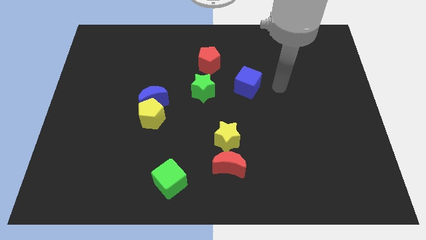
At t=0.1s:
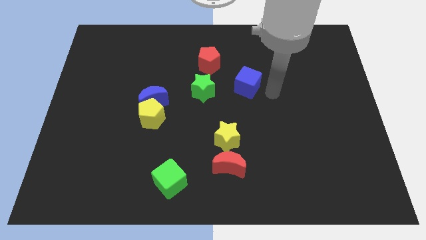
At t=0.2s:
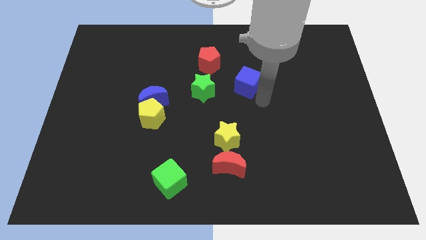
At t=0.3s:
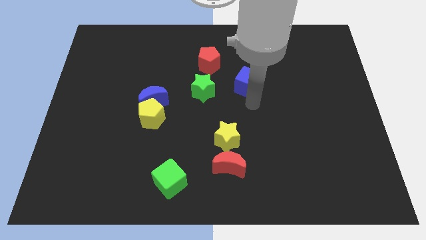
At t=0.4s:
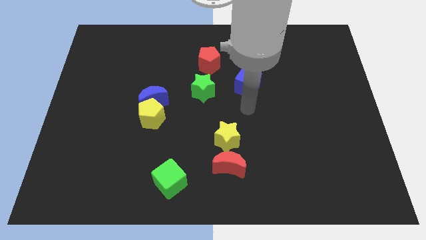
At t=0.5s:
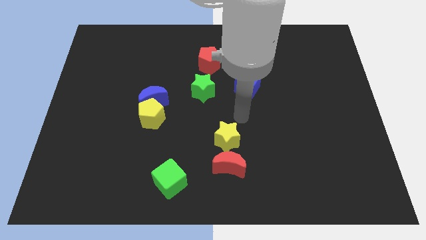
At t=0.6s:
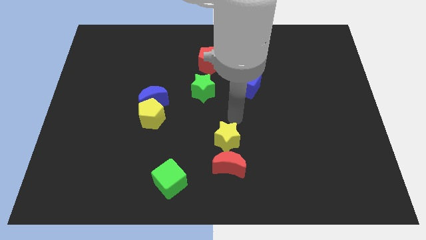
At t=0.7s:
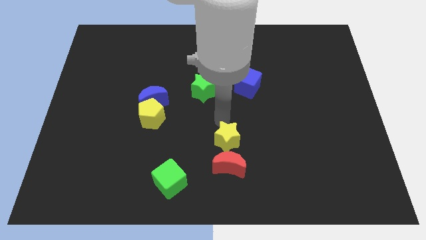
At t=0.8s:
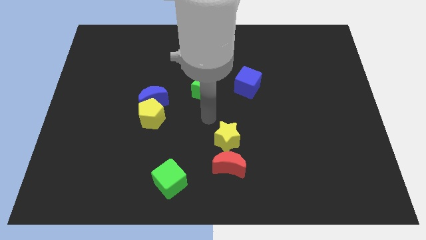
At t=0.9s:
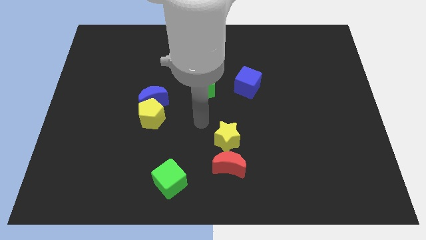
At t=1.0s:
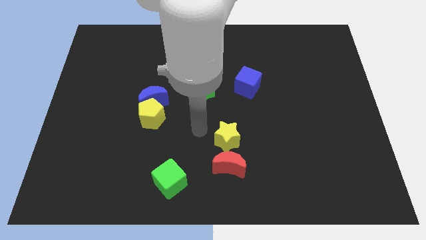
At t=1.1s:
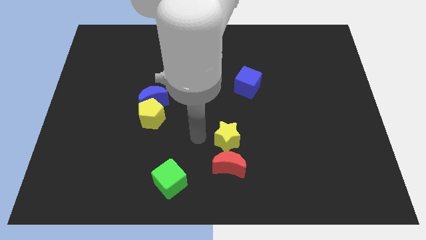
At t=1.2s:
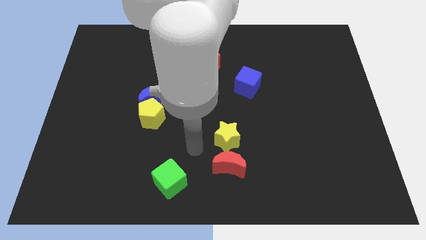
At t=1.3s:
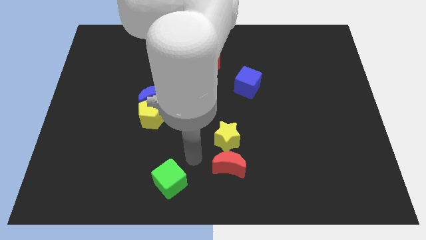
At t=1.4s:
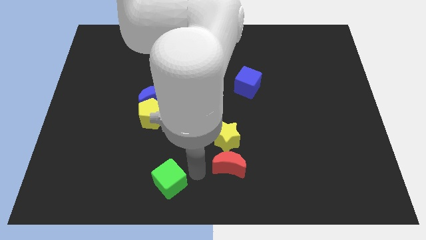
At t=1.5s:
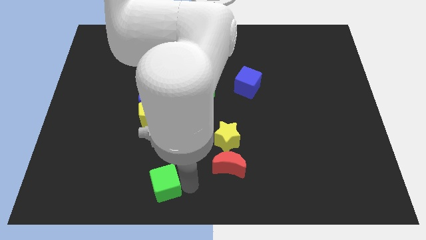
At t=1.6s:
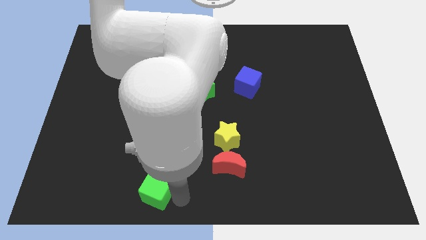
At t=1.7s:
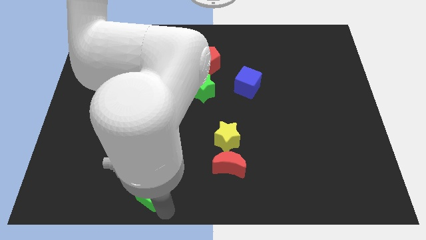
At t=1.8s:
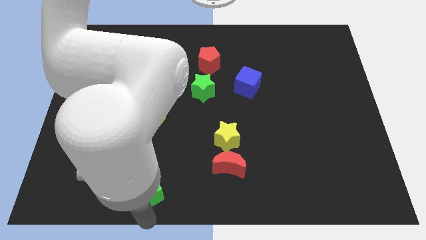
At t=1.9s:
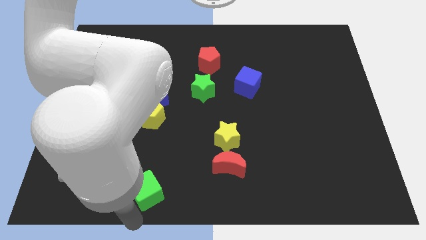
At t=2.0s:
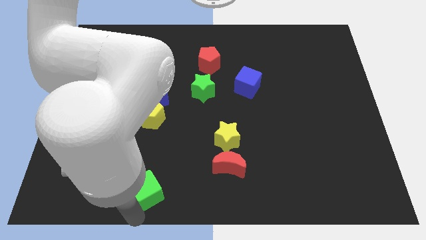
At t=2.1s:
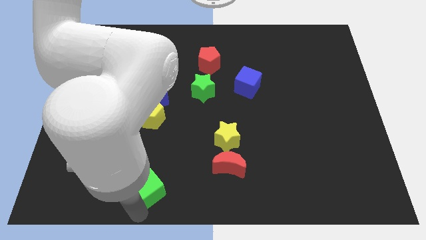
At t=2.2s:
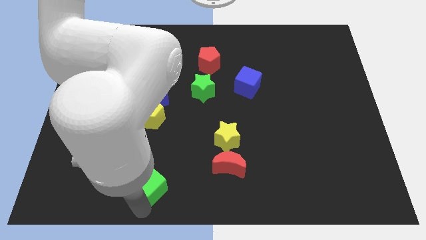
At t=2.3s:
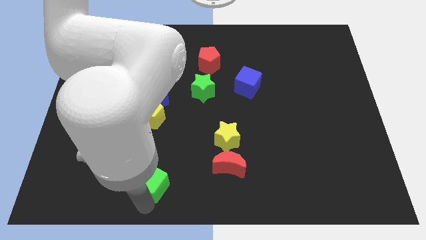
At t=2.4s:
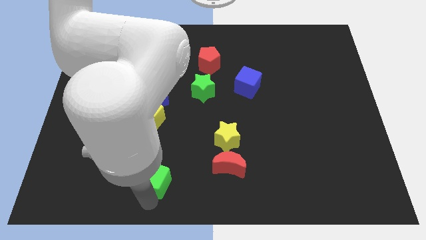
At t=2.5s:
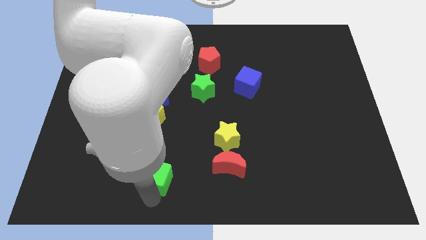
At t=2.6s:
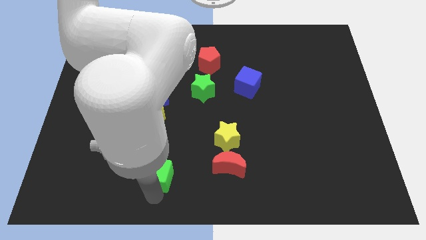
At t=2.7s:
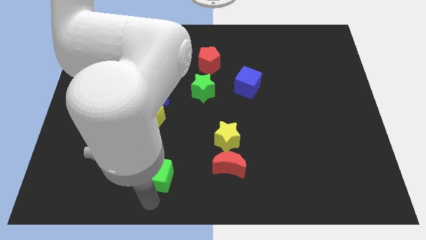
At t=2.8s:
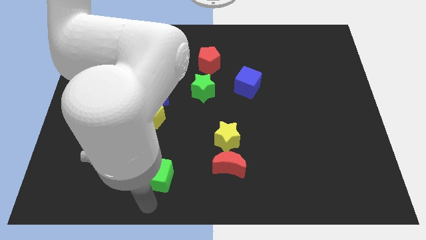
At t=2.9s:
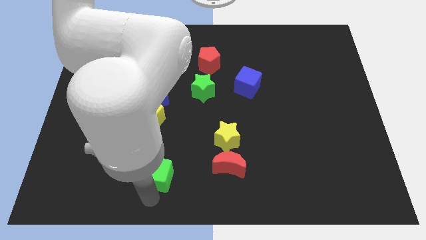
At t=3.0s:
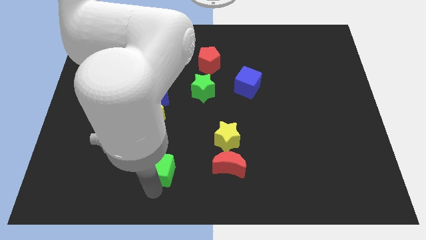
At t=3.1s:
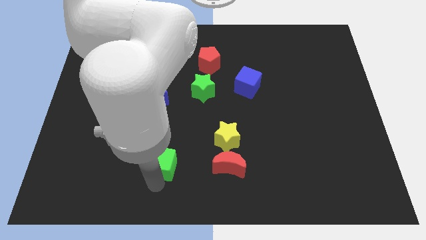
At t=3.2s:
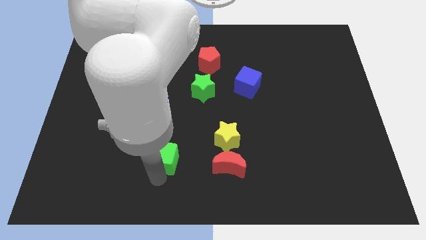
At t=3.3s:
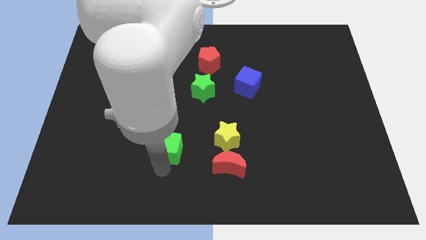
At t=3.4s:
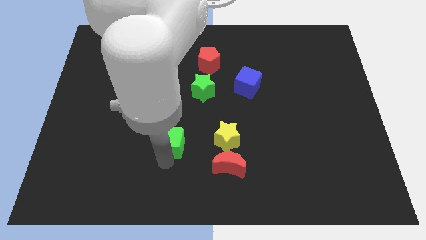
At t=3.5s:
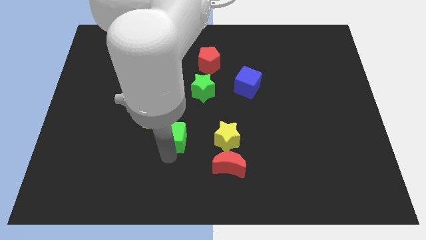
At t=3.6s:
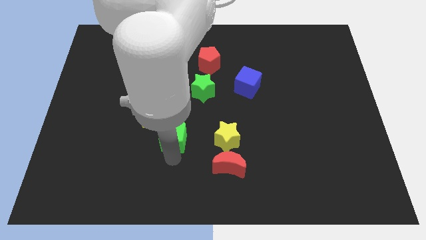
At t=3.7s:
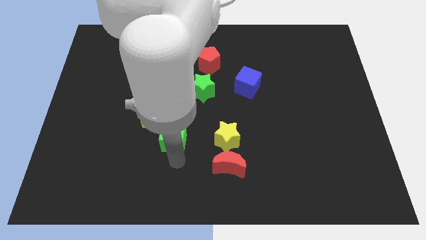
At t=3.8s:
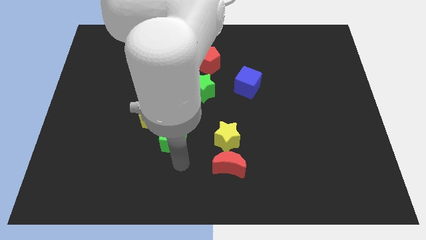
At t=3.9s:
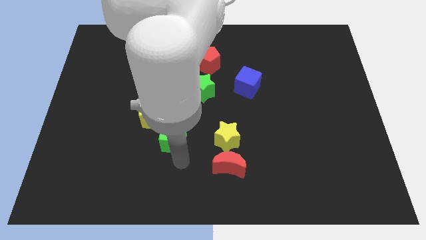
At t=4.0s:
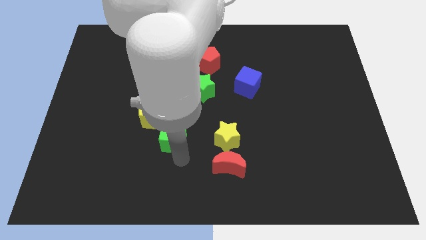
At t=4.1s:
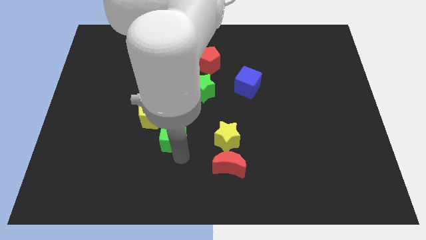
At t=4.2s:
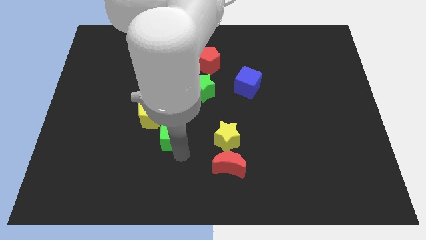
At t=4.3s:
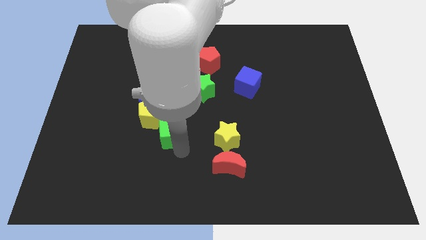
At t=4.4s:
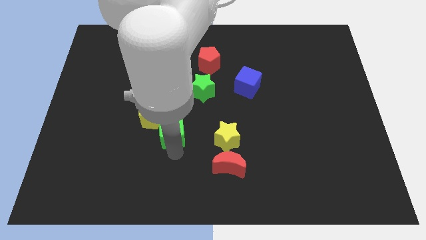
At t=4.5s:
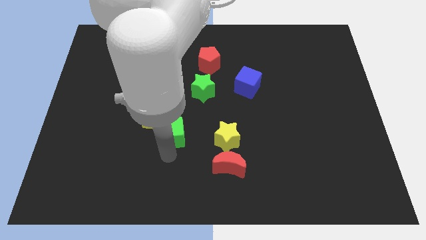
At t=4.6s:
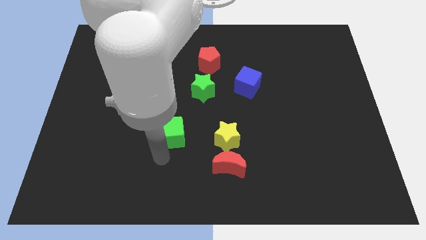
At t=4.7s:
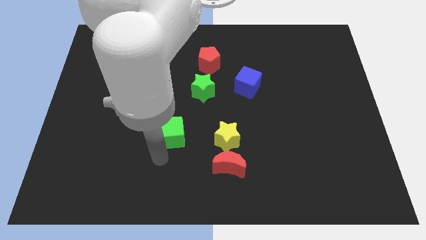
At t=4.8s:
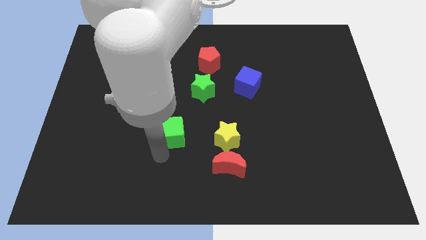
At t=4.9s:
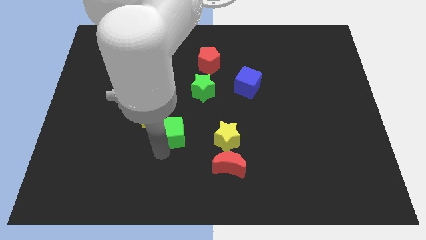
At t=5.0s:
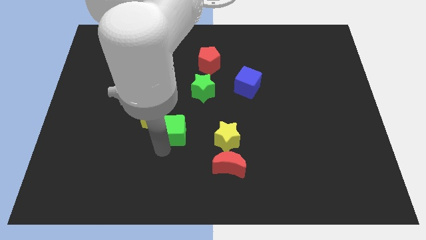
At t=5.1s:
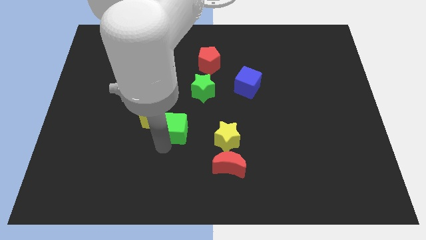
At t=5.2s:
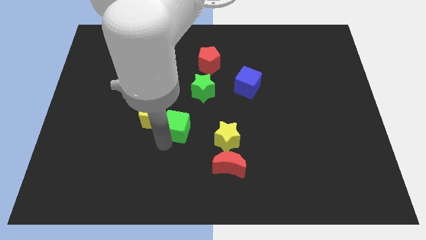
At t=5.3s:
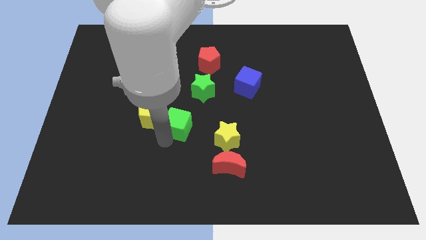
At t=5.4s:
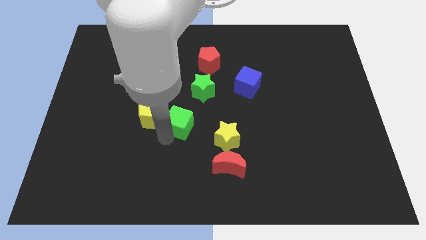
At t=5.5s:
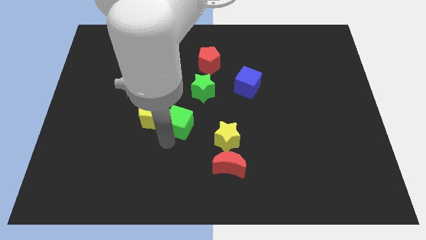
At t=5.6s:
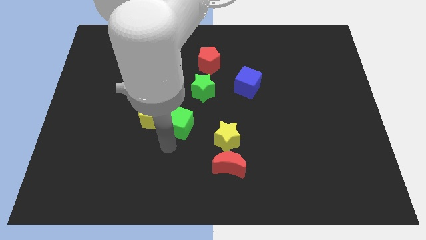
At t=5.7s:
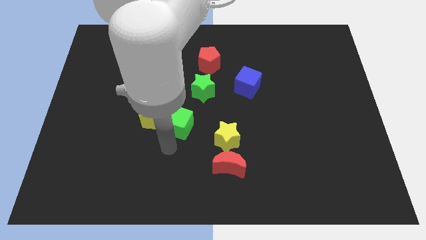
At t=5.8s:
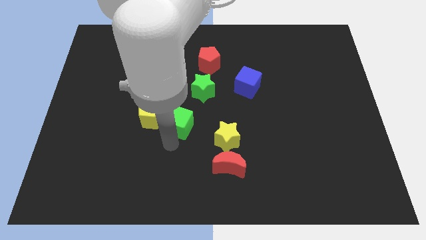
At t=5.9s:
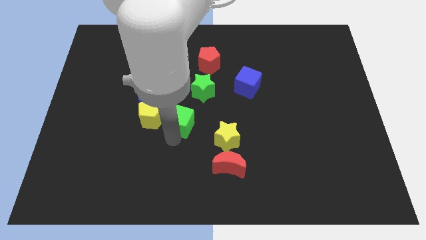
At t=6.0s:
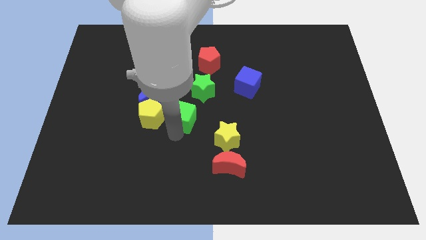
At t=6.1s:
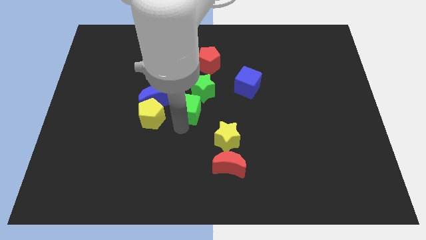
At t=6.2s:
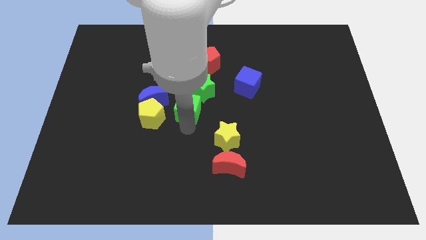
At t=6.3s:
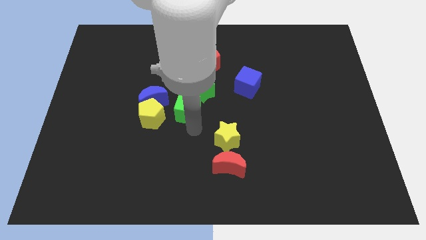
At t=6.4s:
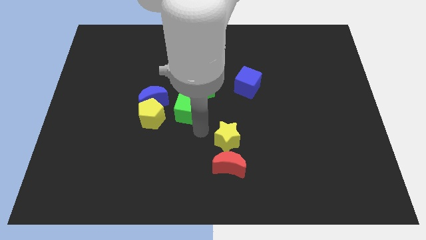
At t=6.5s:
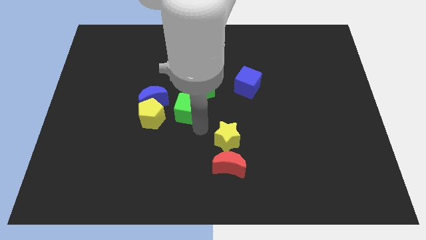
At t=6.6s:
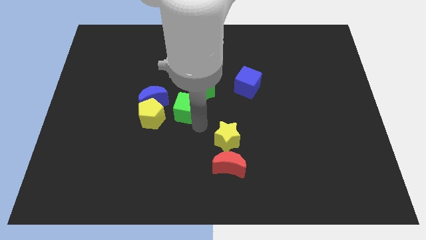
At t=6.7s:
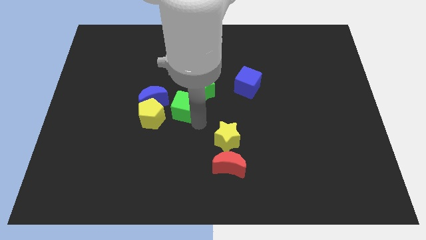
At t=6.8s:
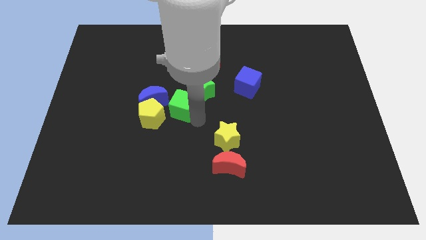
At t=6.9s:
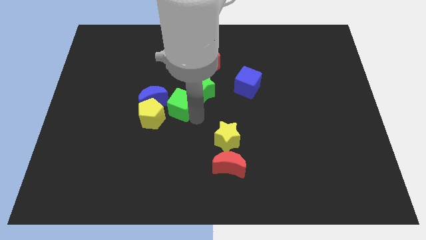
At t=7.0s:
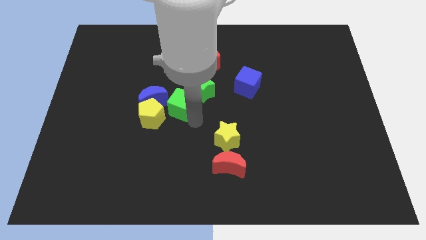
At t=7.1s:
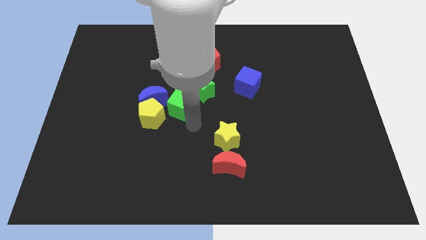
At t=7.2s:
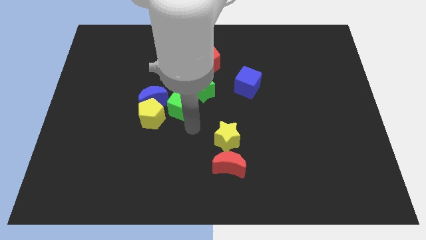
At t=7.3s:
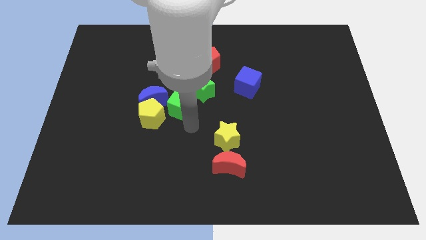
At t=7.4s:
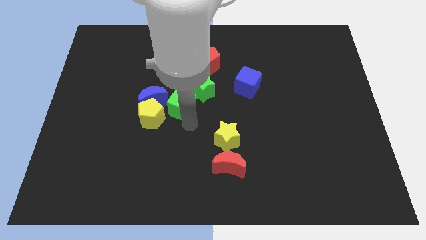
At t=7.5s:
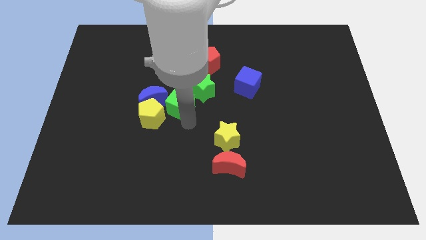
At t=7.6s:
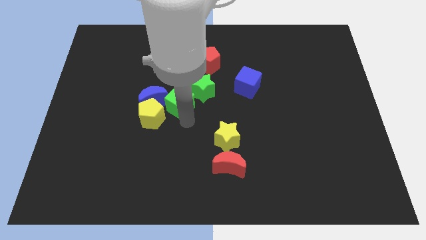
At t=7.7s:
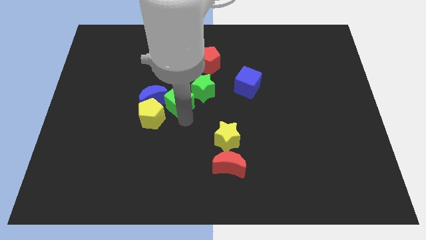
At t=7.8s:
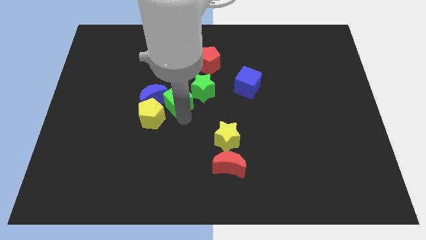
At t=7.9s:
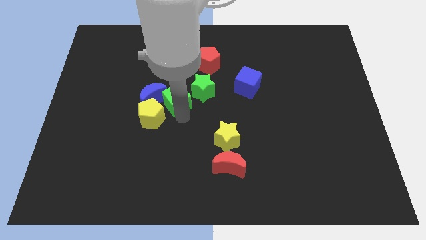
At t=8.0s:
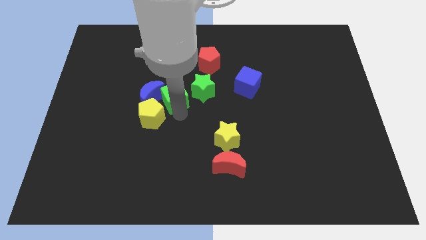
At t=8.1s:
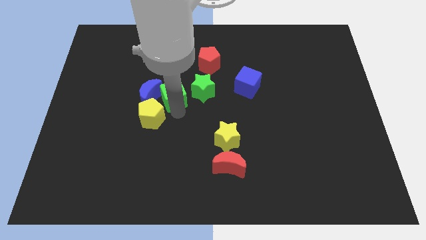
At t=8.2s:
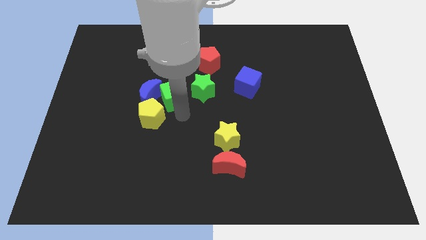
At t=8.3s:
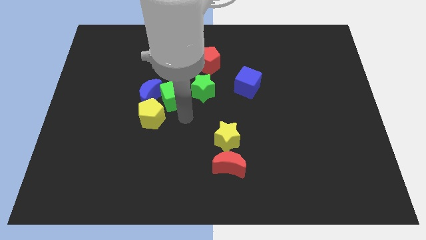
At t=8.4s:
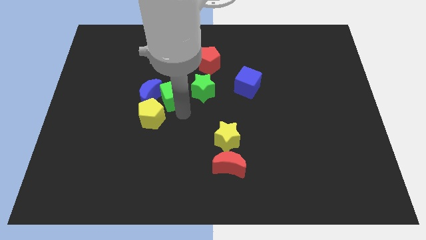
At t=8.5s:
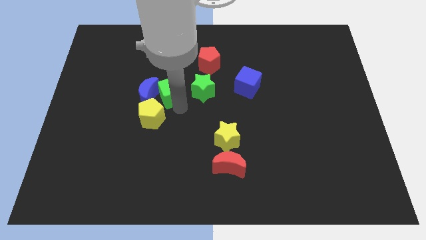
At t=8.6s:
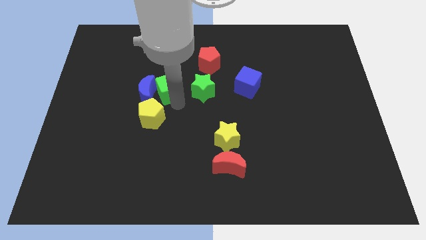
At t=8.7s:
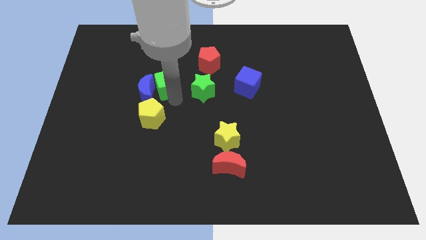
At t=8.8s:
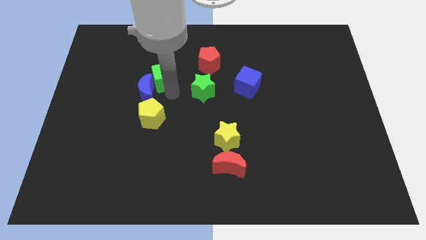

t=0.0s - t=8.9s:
move the green cube to the top of the blue moon
